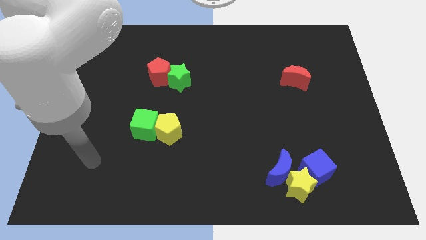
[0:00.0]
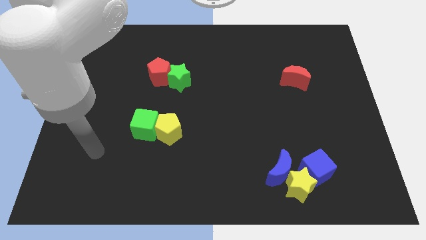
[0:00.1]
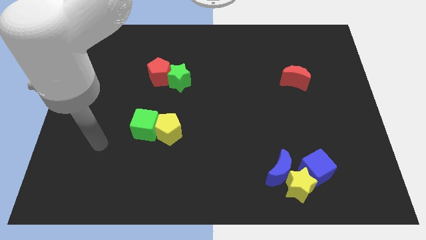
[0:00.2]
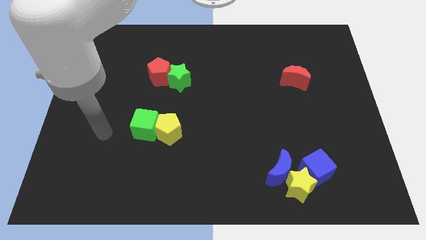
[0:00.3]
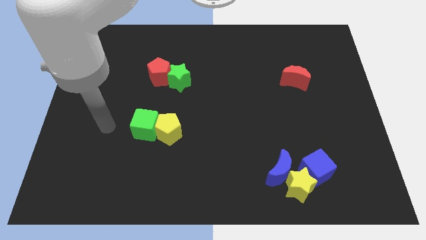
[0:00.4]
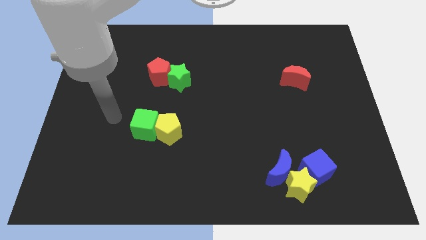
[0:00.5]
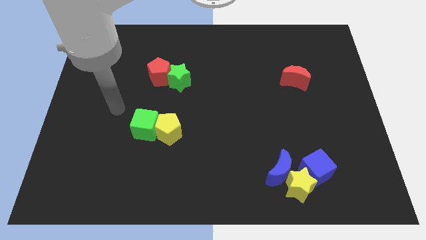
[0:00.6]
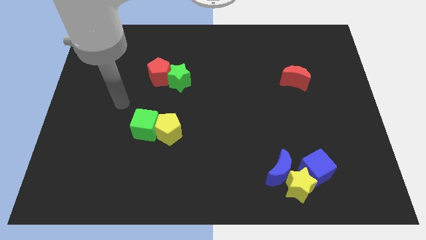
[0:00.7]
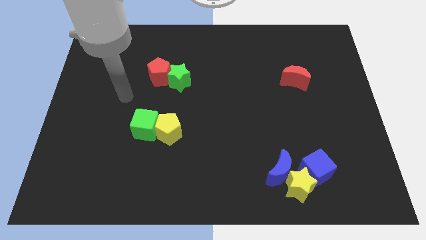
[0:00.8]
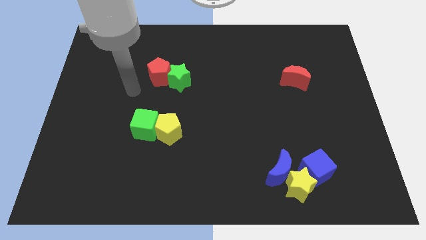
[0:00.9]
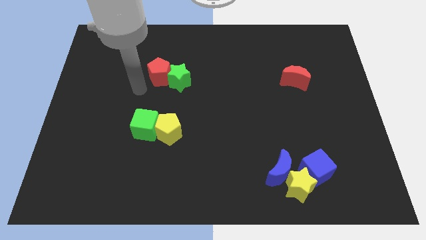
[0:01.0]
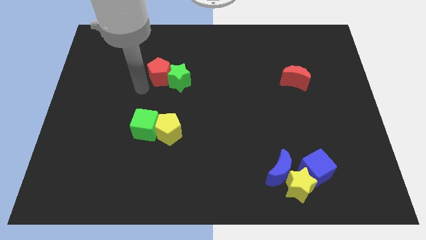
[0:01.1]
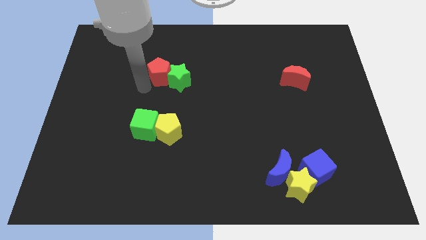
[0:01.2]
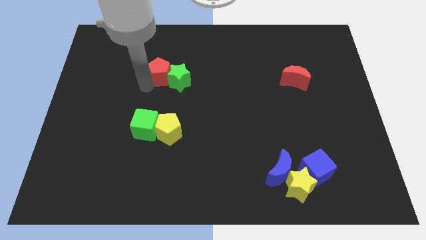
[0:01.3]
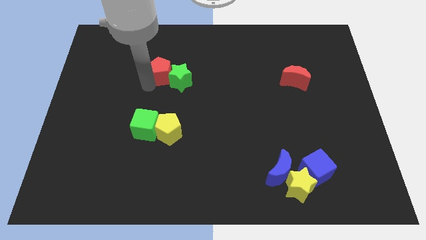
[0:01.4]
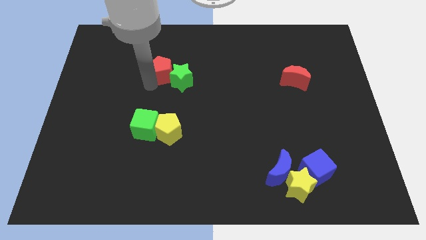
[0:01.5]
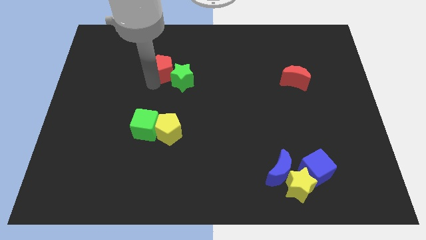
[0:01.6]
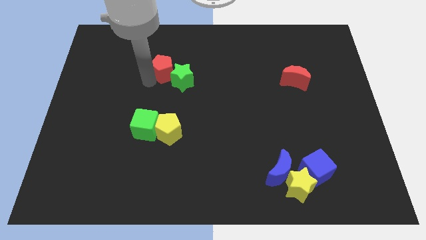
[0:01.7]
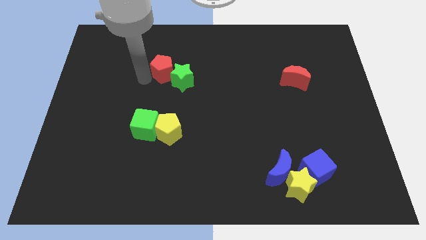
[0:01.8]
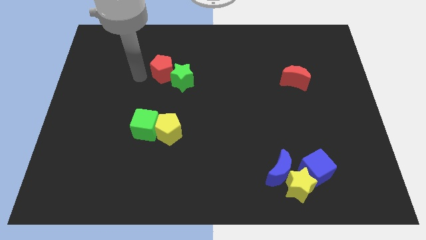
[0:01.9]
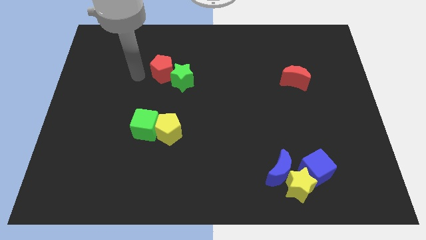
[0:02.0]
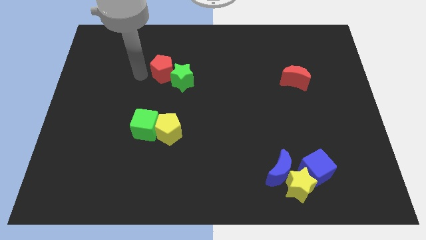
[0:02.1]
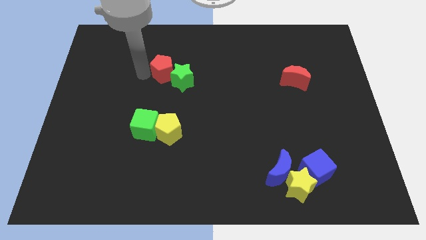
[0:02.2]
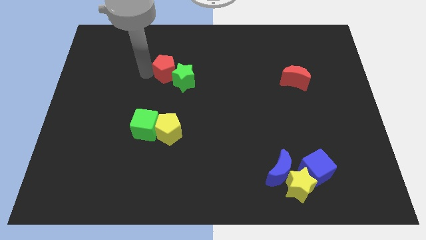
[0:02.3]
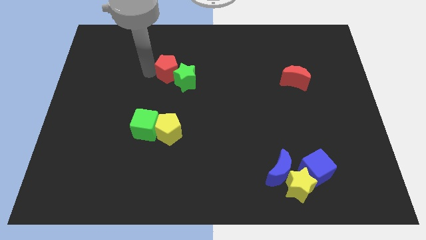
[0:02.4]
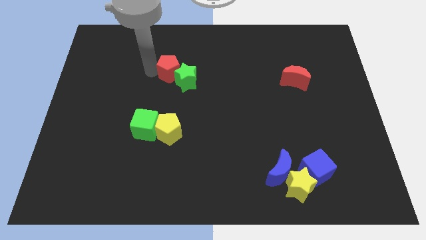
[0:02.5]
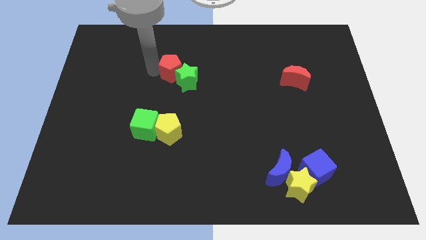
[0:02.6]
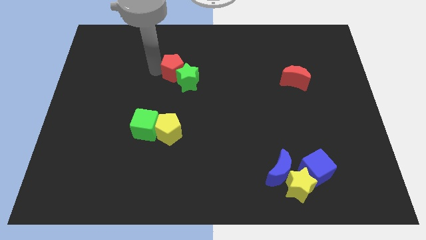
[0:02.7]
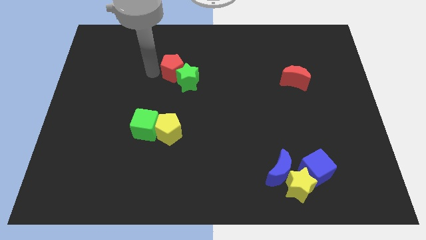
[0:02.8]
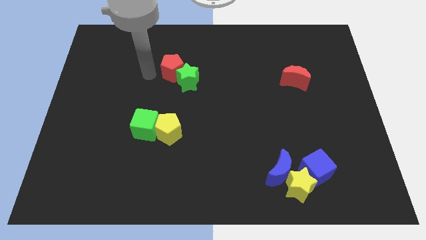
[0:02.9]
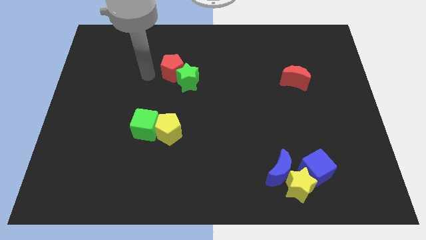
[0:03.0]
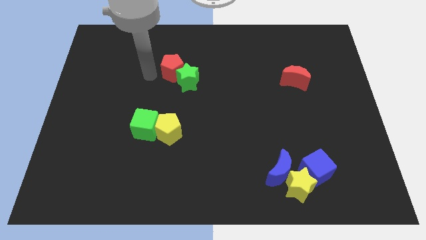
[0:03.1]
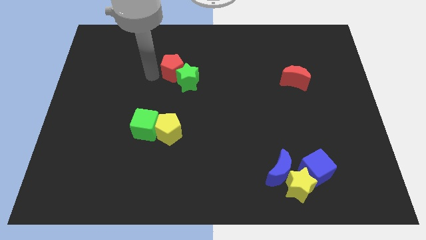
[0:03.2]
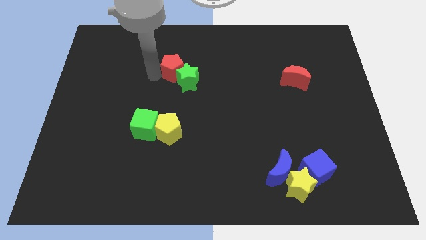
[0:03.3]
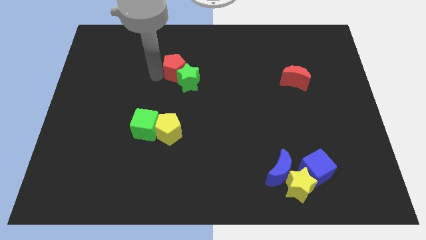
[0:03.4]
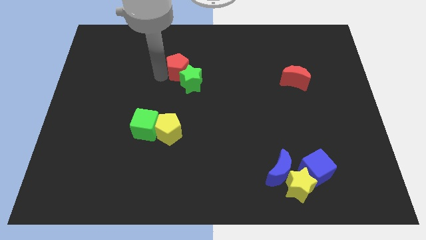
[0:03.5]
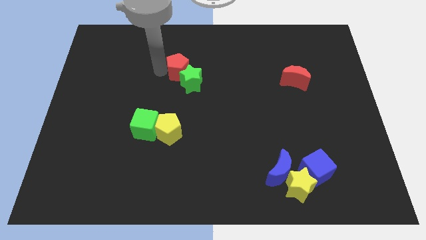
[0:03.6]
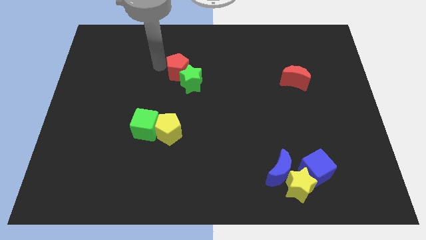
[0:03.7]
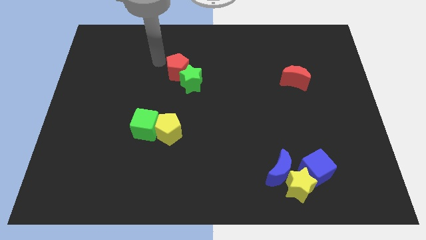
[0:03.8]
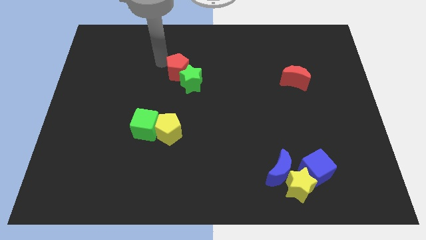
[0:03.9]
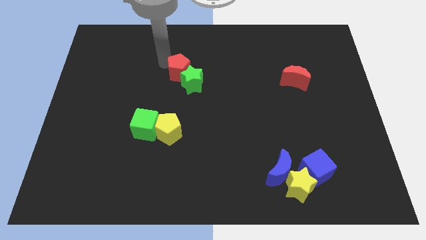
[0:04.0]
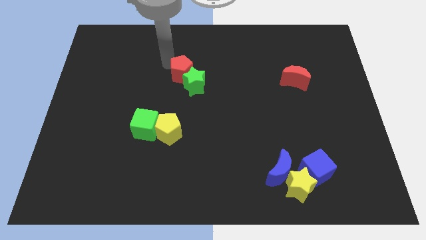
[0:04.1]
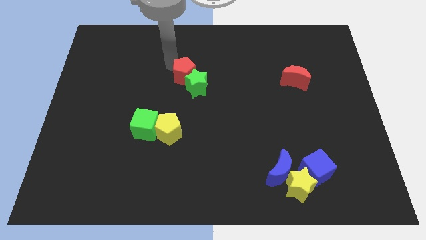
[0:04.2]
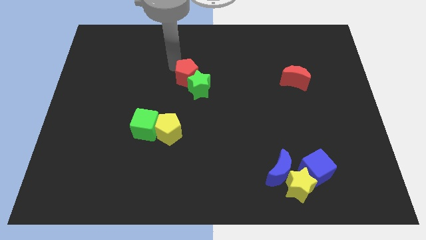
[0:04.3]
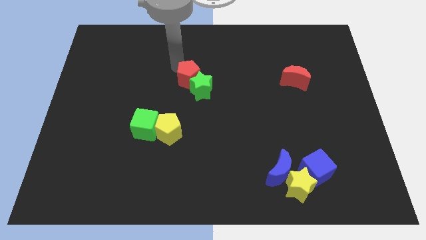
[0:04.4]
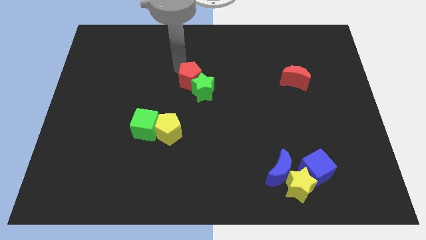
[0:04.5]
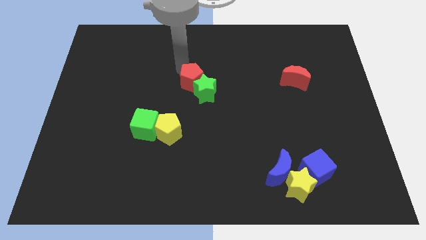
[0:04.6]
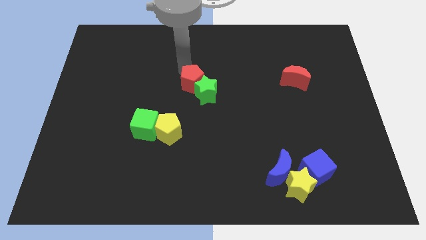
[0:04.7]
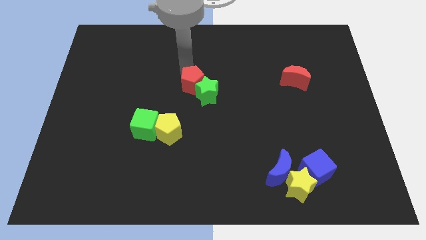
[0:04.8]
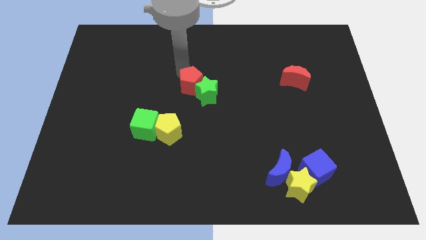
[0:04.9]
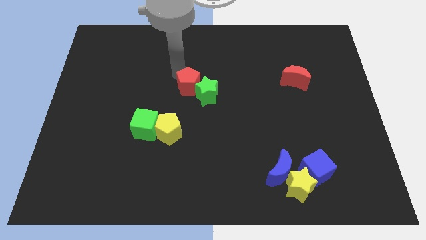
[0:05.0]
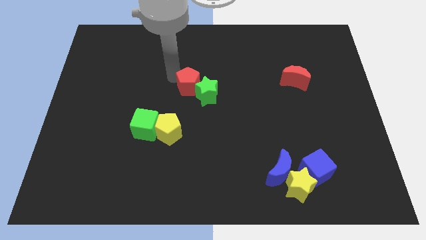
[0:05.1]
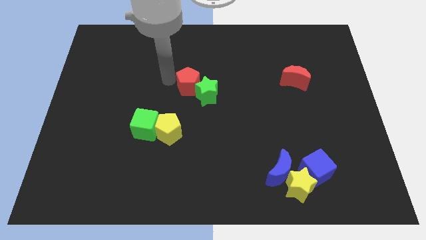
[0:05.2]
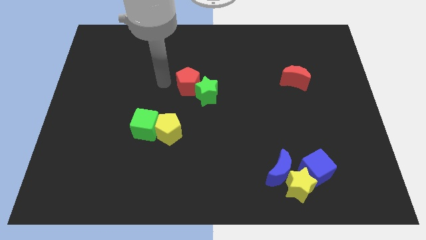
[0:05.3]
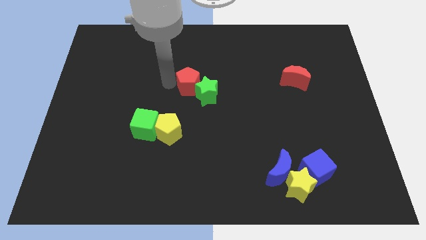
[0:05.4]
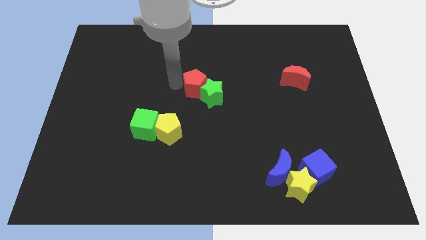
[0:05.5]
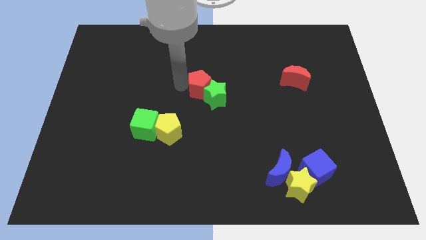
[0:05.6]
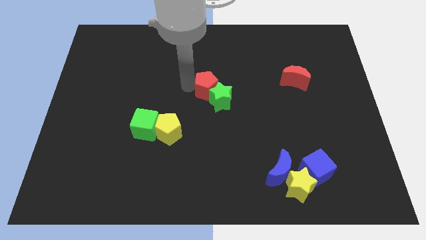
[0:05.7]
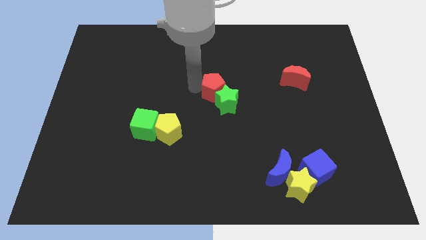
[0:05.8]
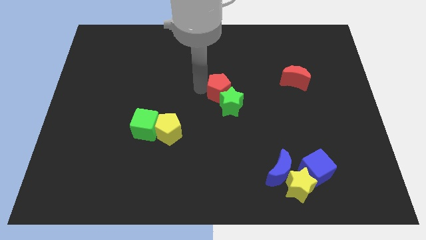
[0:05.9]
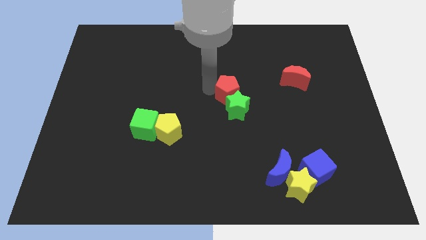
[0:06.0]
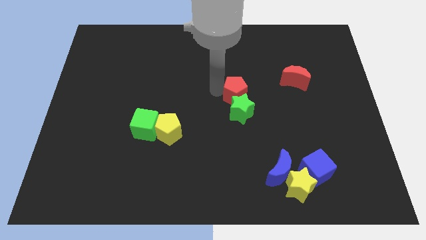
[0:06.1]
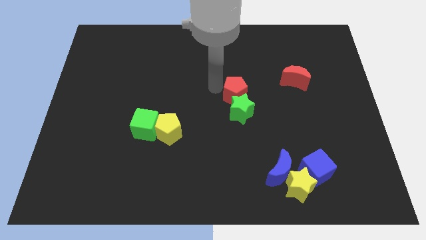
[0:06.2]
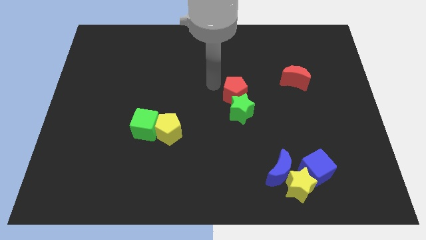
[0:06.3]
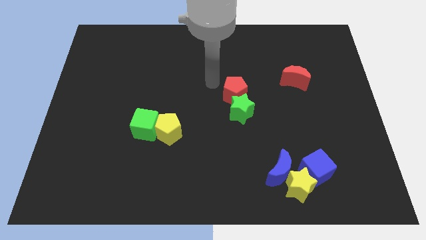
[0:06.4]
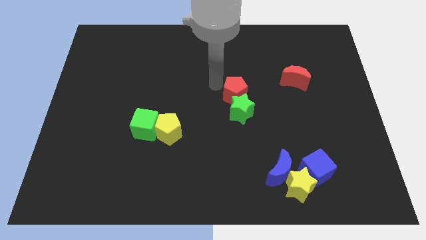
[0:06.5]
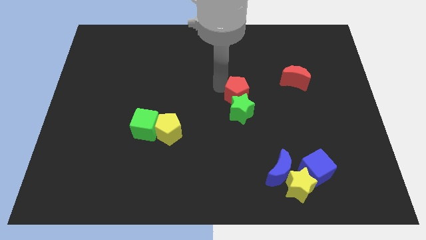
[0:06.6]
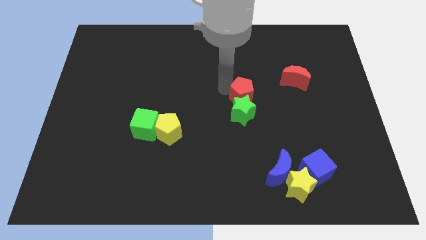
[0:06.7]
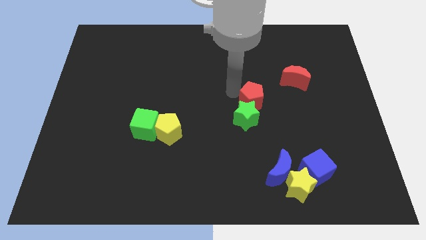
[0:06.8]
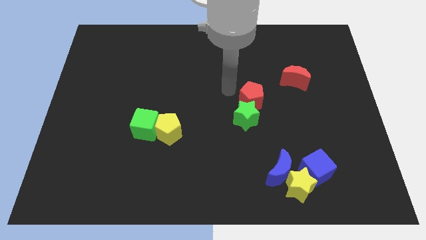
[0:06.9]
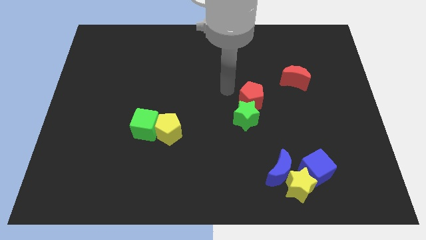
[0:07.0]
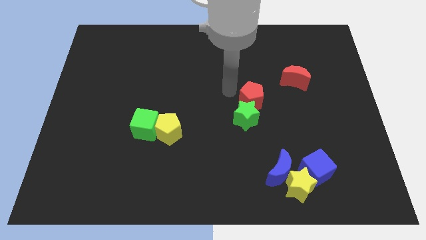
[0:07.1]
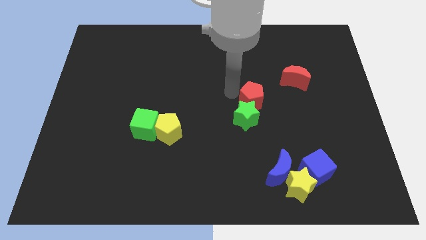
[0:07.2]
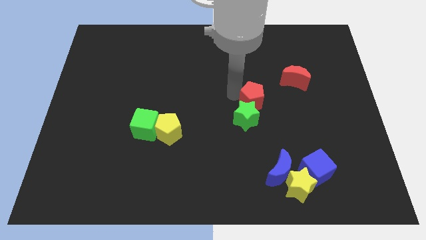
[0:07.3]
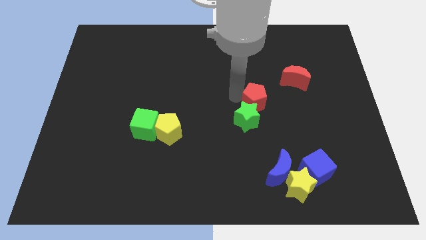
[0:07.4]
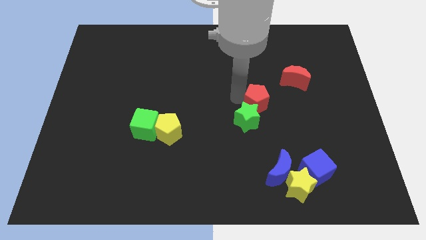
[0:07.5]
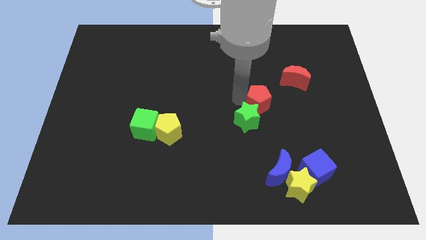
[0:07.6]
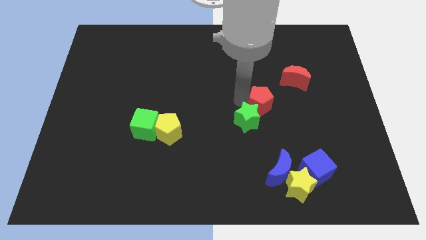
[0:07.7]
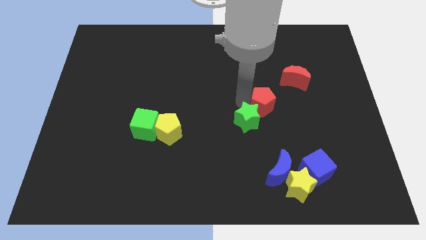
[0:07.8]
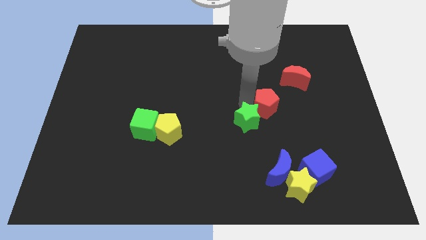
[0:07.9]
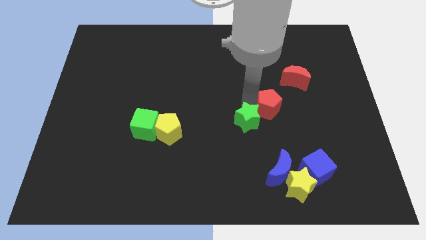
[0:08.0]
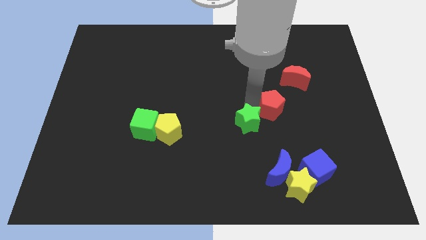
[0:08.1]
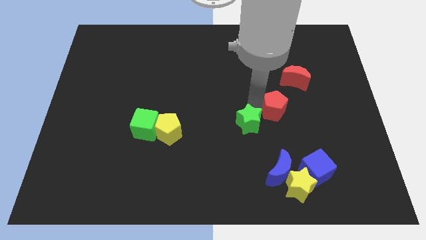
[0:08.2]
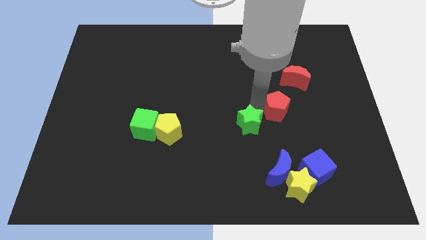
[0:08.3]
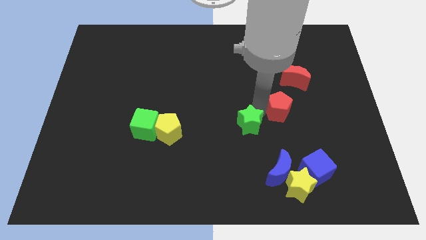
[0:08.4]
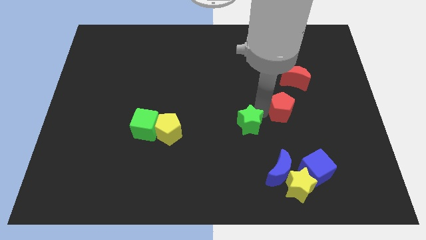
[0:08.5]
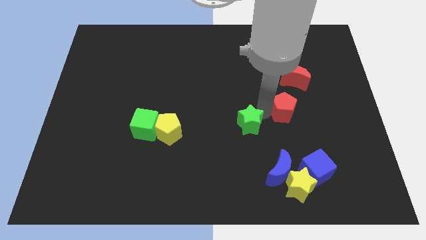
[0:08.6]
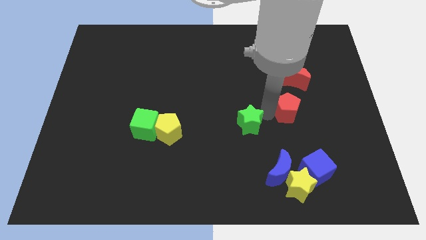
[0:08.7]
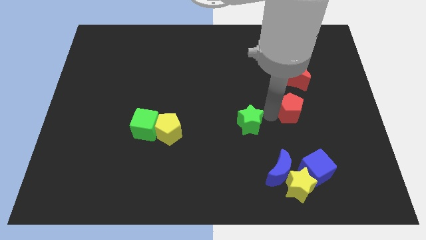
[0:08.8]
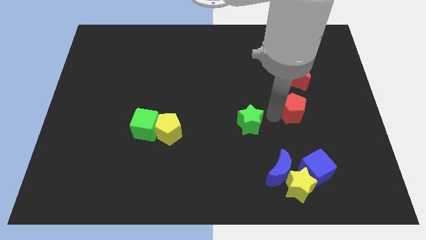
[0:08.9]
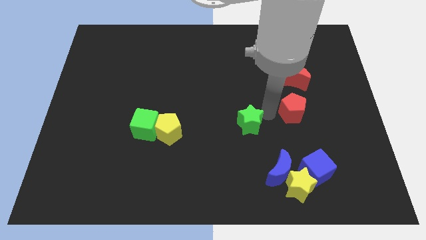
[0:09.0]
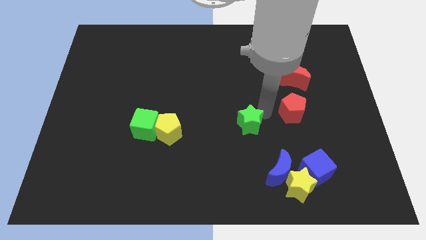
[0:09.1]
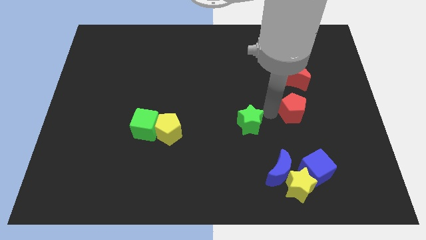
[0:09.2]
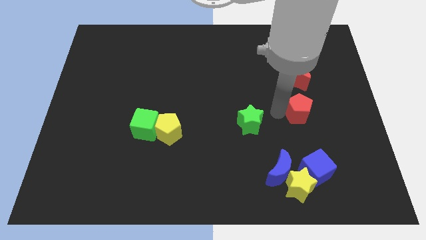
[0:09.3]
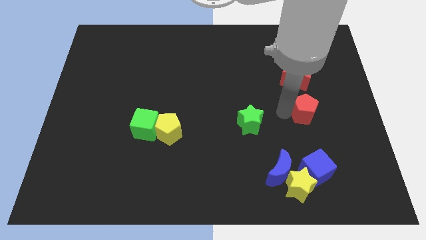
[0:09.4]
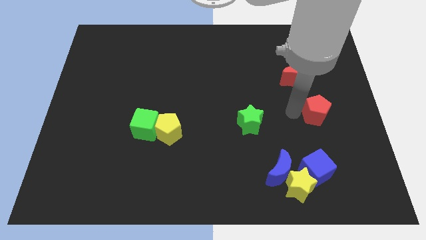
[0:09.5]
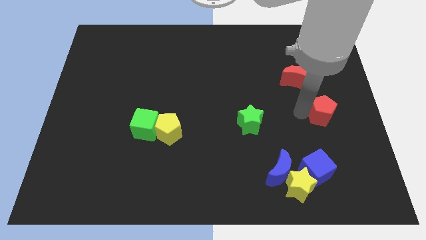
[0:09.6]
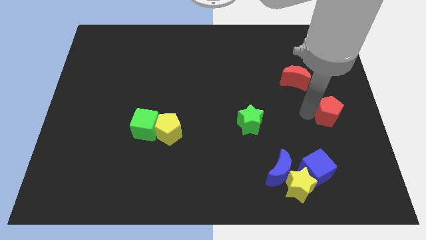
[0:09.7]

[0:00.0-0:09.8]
move the red pentagon to the right side of the board
